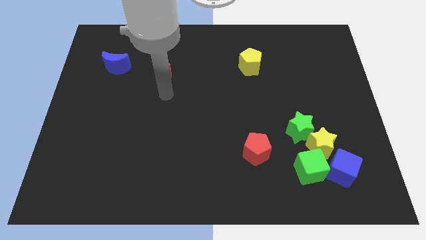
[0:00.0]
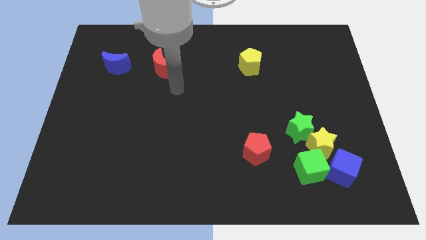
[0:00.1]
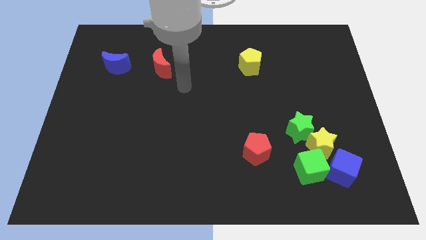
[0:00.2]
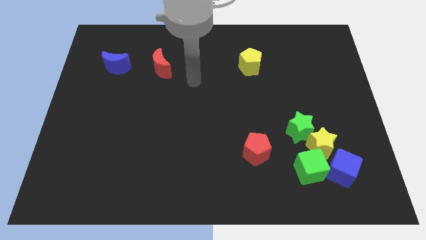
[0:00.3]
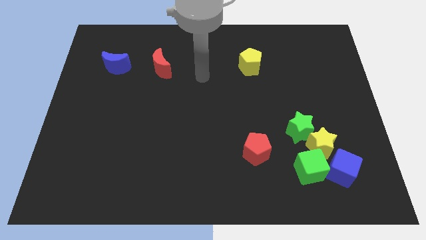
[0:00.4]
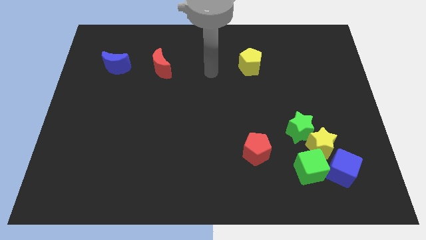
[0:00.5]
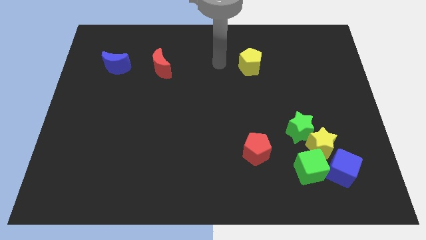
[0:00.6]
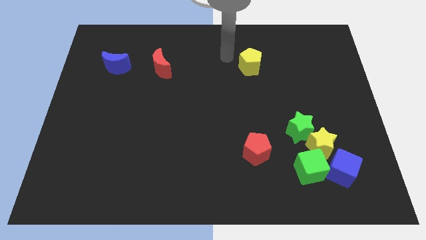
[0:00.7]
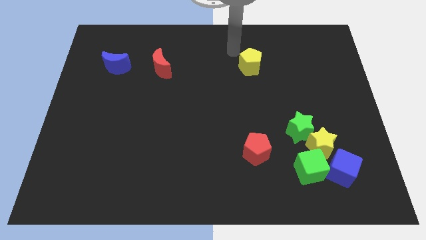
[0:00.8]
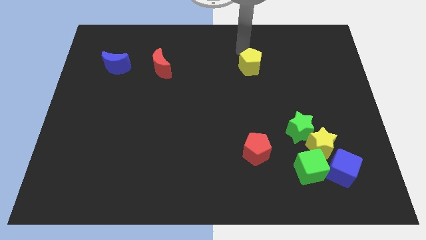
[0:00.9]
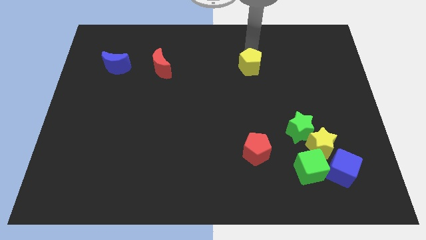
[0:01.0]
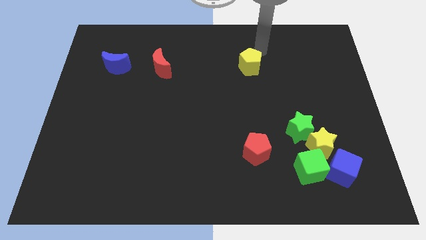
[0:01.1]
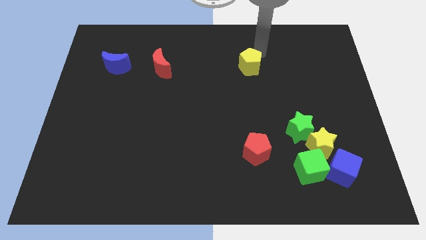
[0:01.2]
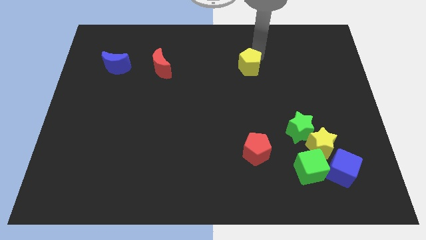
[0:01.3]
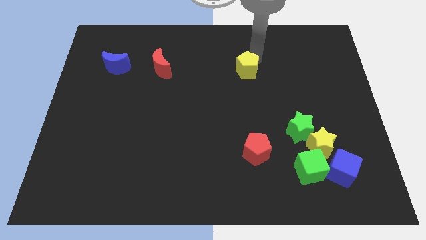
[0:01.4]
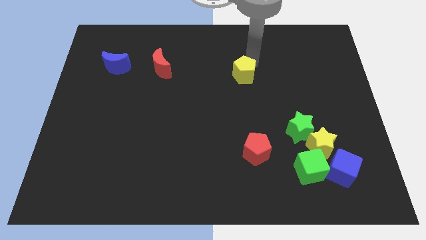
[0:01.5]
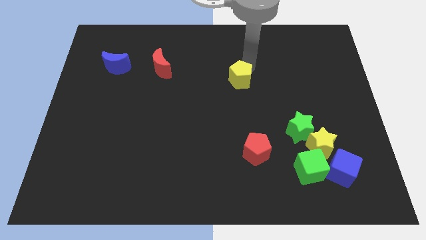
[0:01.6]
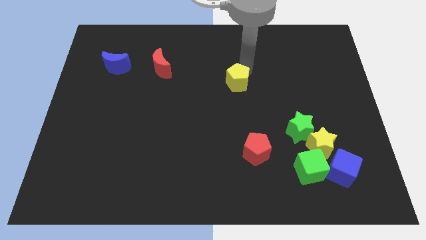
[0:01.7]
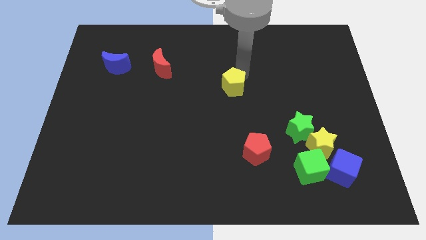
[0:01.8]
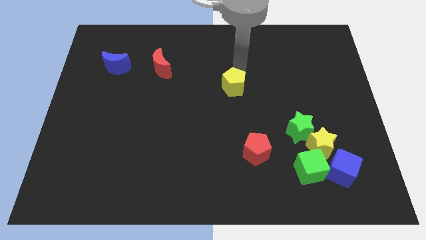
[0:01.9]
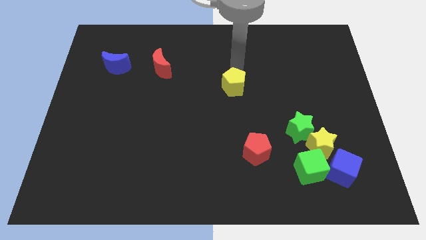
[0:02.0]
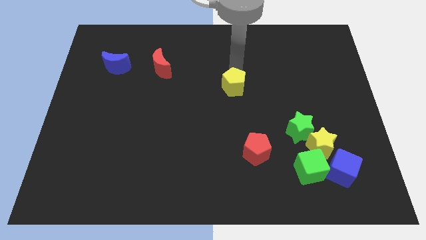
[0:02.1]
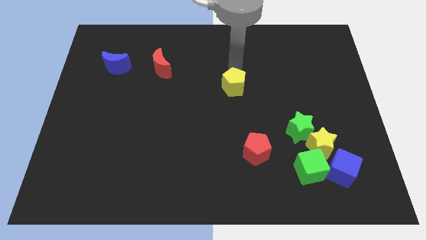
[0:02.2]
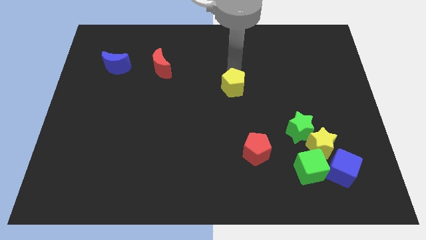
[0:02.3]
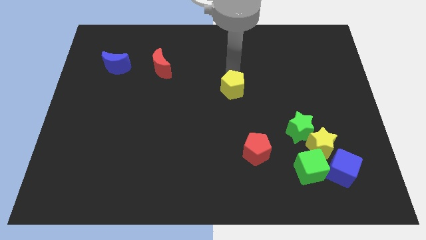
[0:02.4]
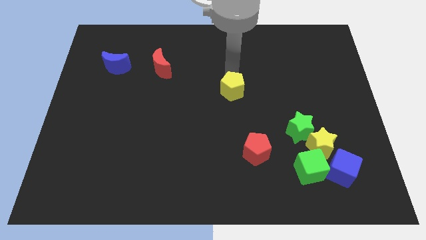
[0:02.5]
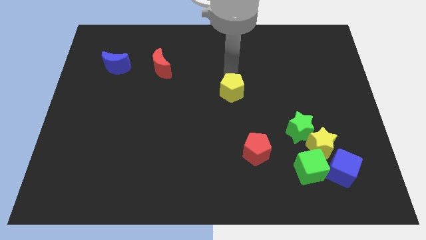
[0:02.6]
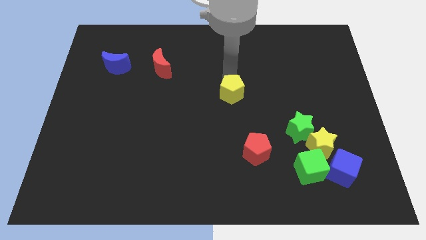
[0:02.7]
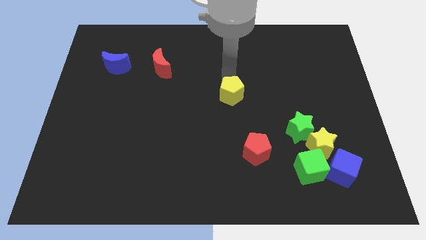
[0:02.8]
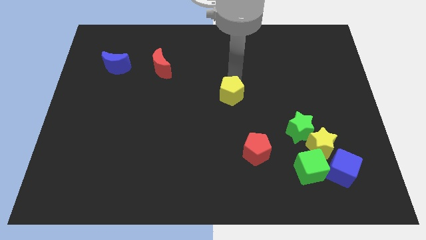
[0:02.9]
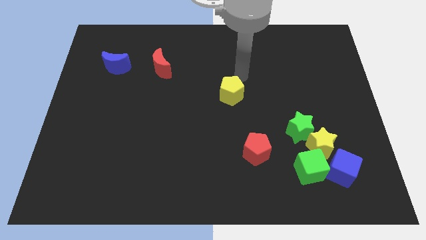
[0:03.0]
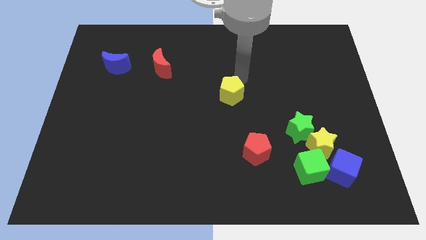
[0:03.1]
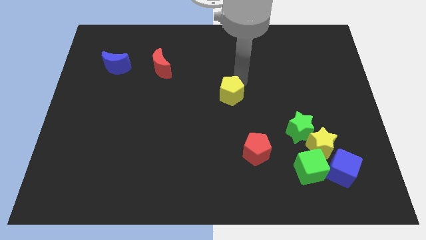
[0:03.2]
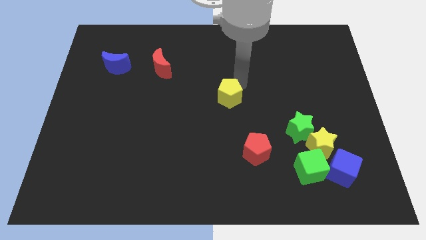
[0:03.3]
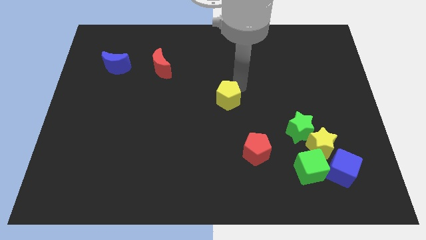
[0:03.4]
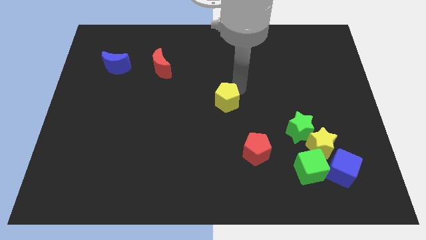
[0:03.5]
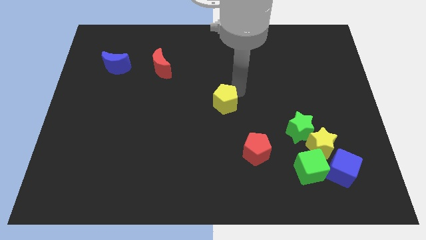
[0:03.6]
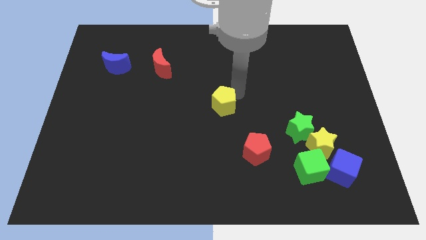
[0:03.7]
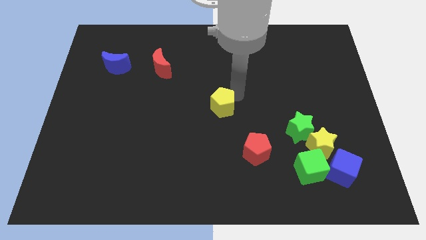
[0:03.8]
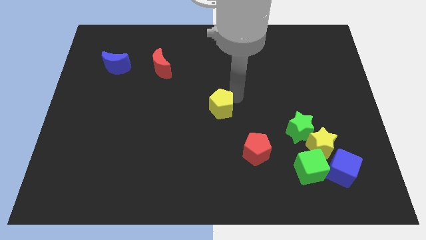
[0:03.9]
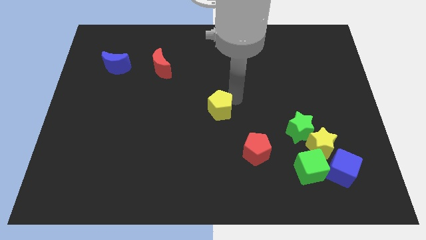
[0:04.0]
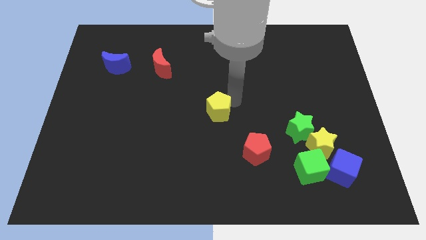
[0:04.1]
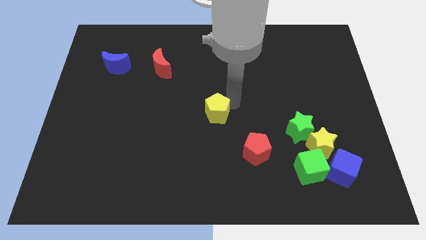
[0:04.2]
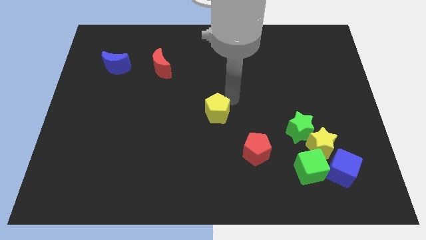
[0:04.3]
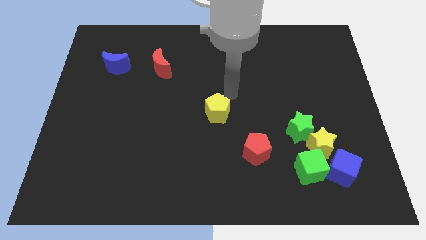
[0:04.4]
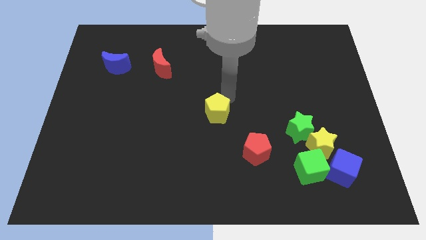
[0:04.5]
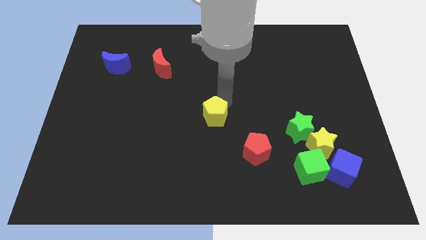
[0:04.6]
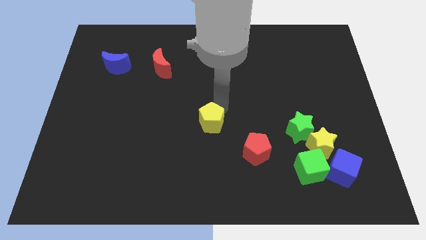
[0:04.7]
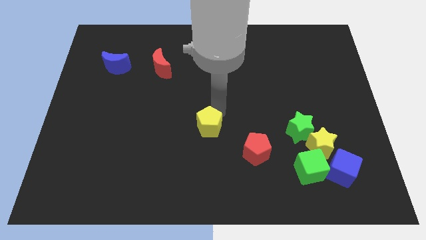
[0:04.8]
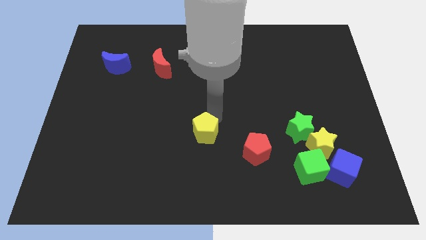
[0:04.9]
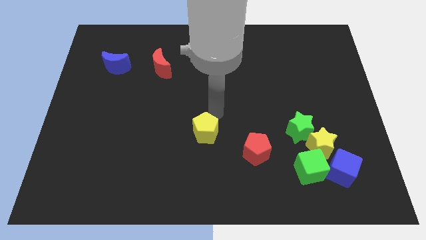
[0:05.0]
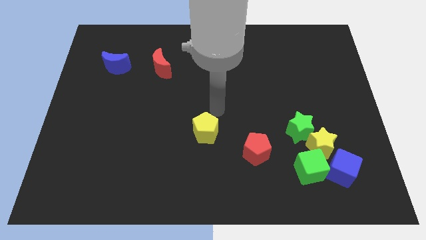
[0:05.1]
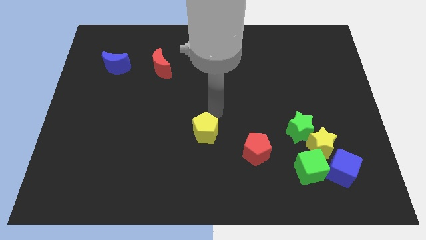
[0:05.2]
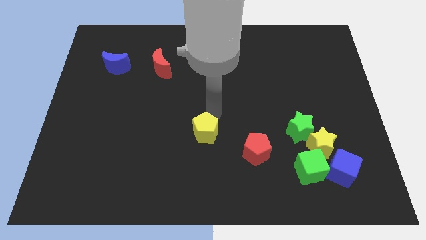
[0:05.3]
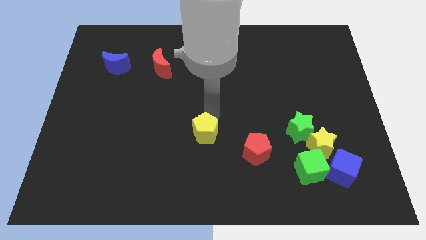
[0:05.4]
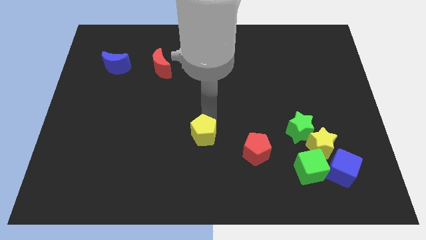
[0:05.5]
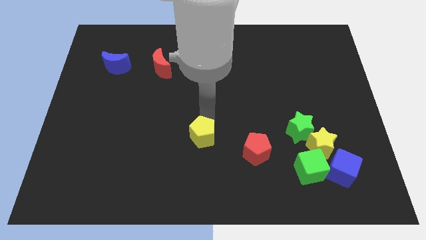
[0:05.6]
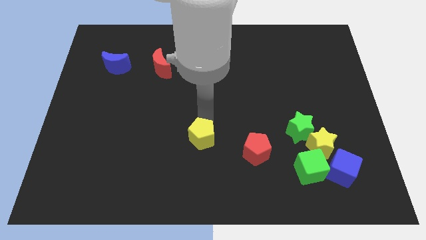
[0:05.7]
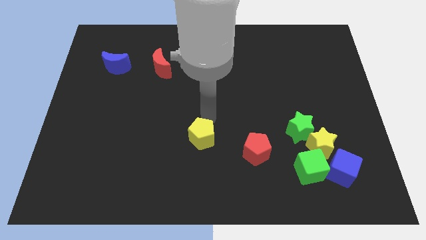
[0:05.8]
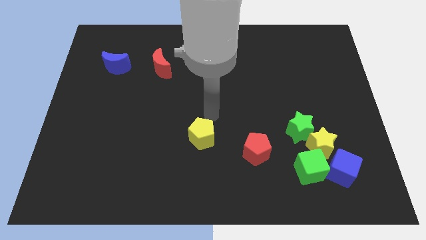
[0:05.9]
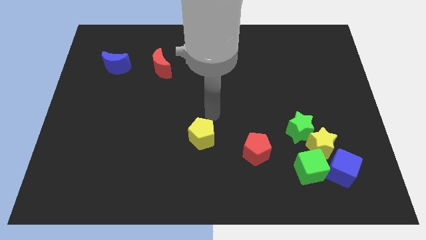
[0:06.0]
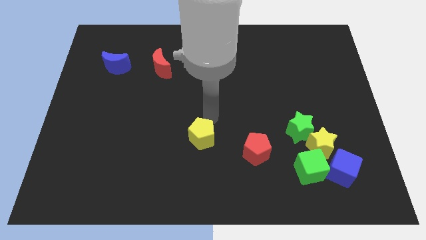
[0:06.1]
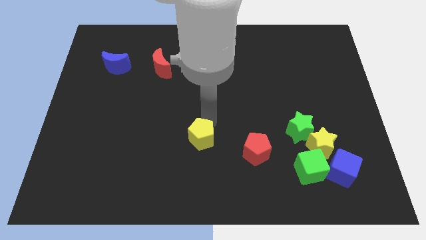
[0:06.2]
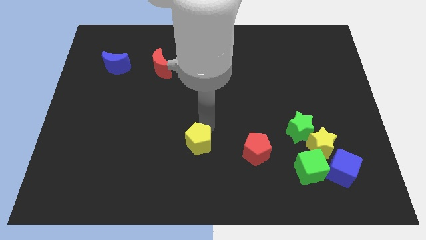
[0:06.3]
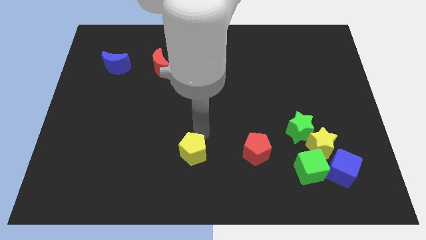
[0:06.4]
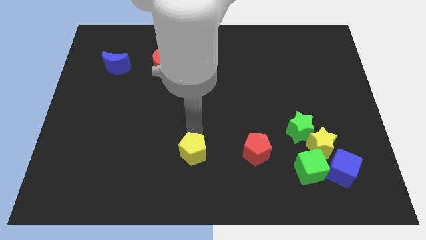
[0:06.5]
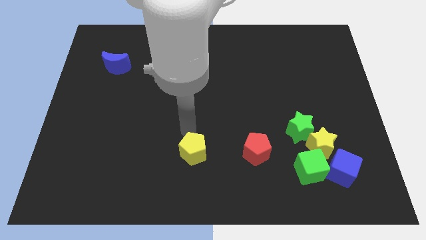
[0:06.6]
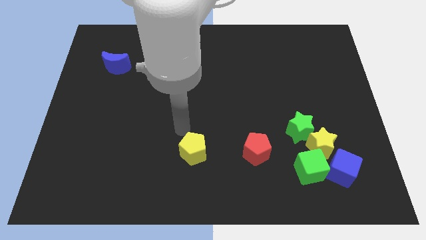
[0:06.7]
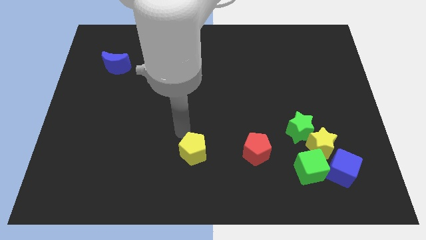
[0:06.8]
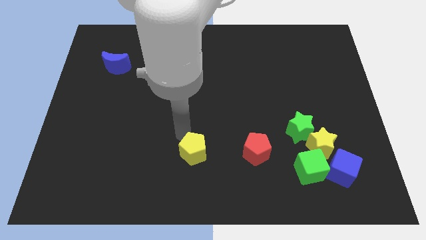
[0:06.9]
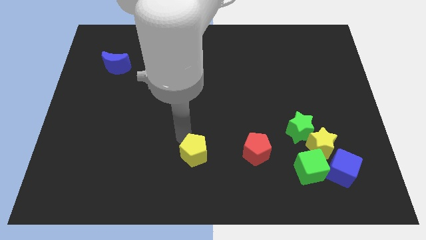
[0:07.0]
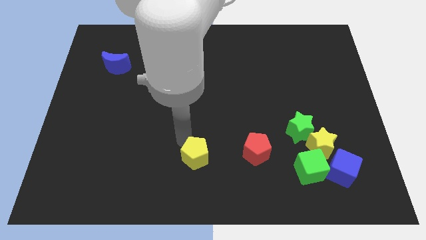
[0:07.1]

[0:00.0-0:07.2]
slide the yellow pentagon to the bottom
